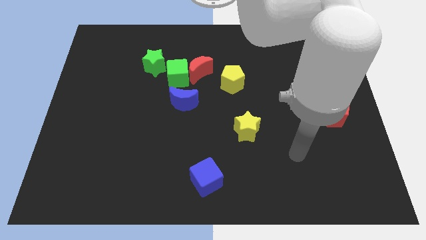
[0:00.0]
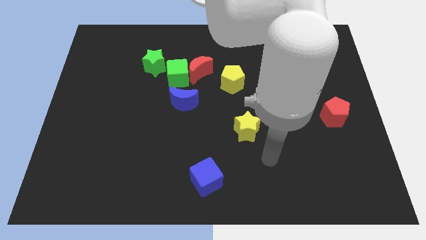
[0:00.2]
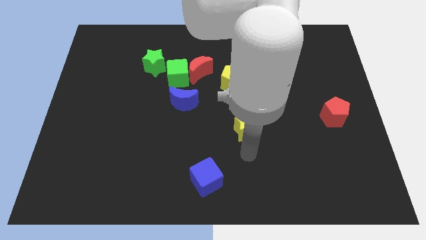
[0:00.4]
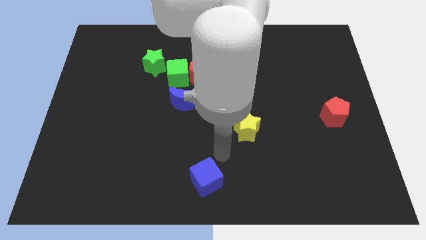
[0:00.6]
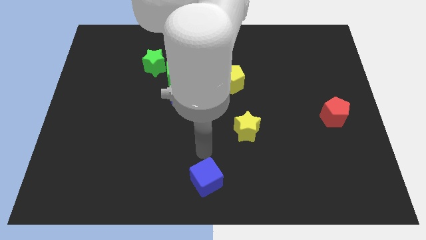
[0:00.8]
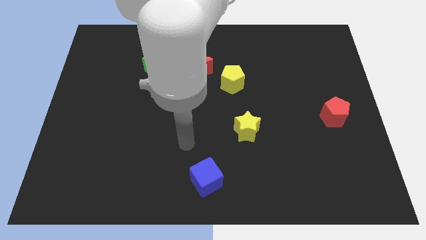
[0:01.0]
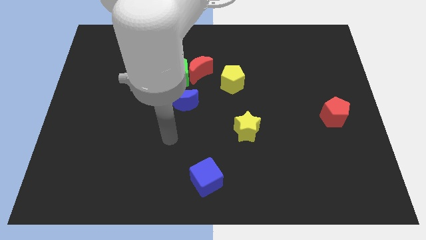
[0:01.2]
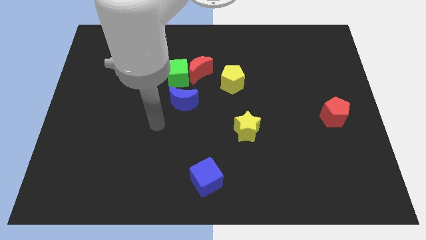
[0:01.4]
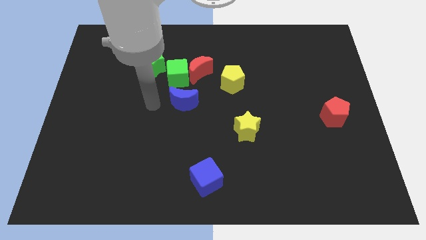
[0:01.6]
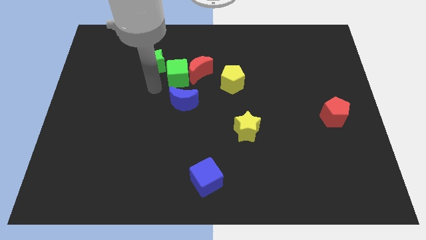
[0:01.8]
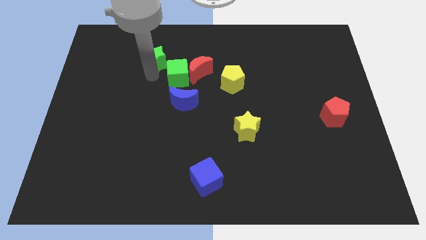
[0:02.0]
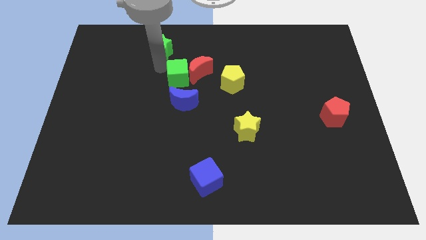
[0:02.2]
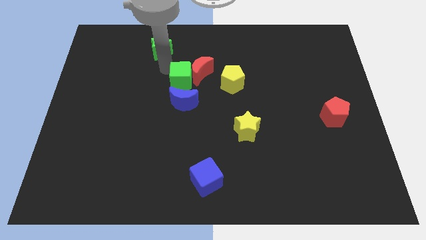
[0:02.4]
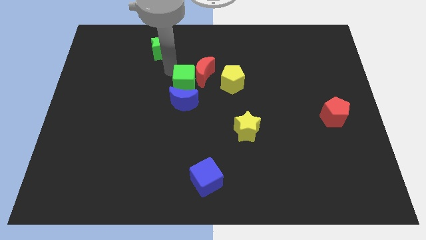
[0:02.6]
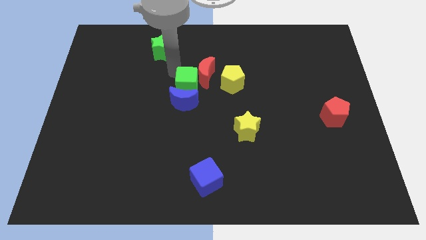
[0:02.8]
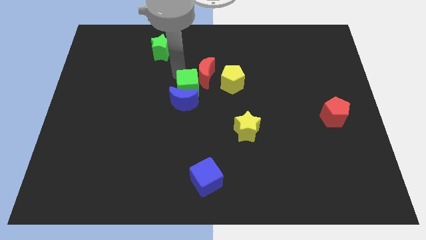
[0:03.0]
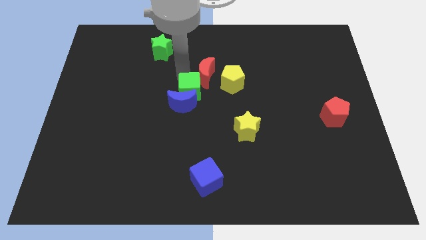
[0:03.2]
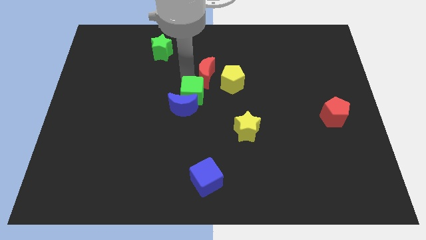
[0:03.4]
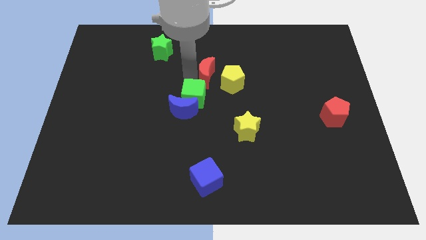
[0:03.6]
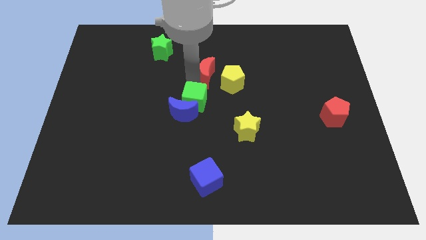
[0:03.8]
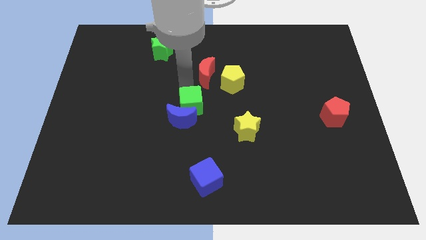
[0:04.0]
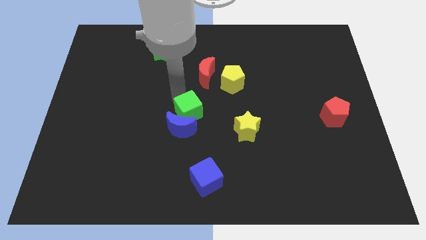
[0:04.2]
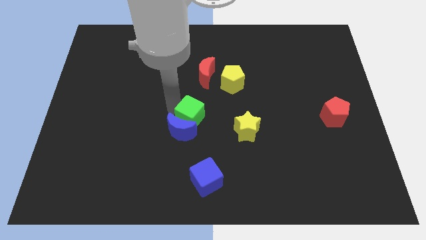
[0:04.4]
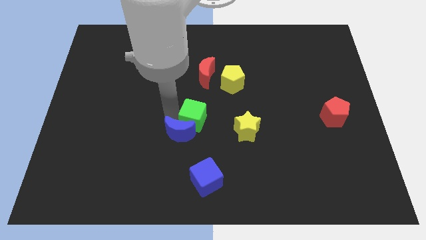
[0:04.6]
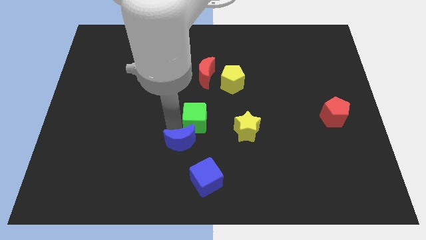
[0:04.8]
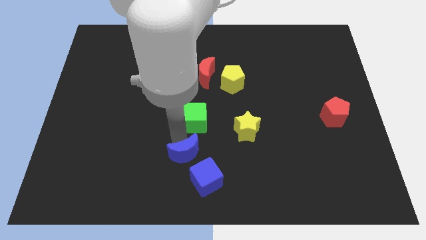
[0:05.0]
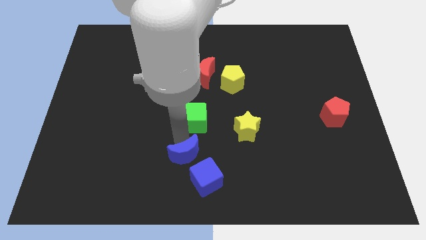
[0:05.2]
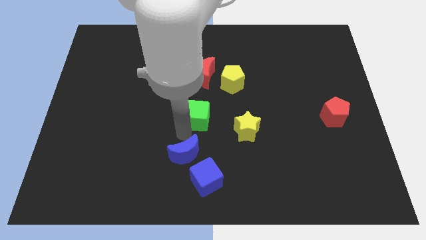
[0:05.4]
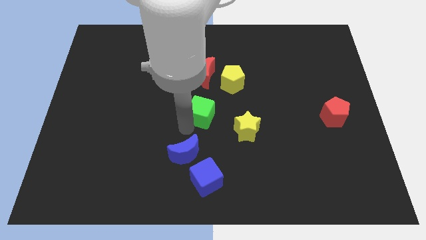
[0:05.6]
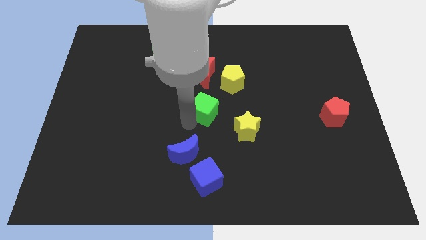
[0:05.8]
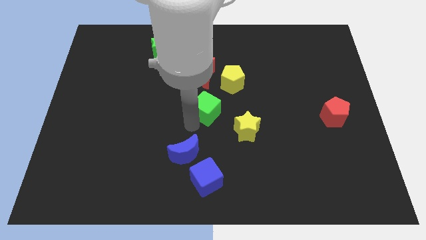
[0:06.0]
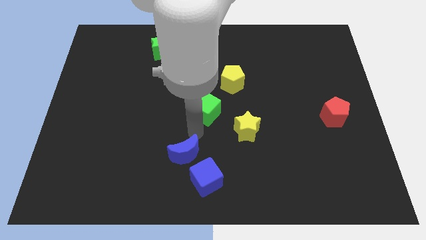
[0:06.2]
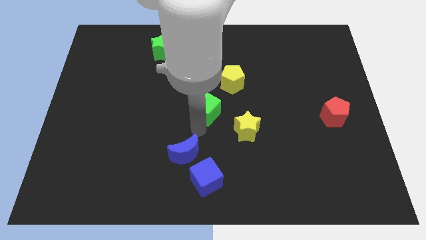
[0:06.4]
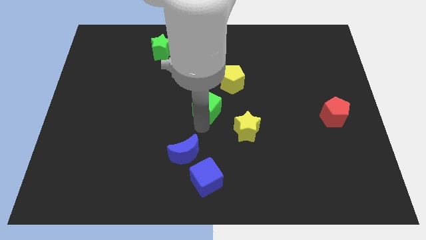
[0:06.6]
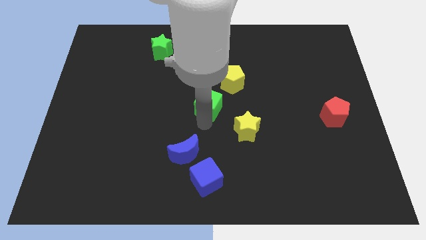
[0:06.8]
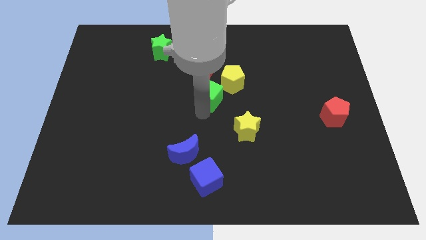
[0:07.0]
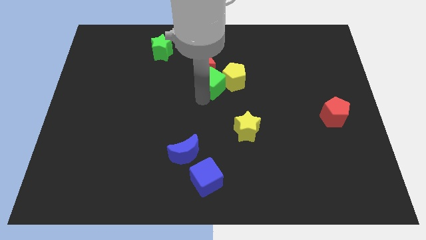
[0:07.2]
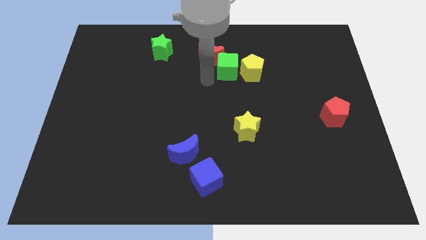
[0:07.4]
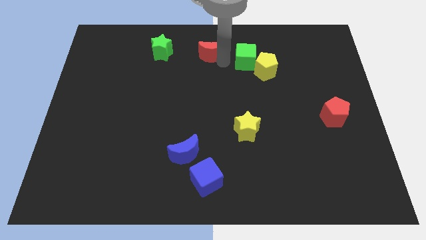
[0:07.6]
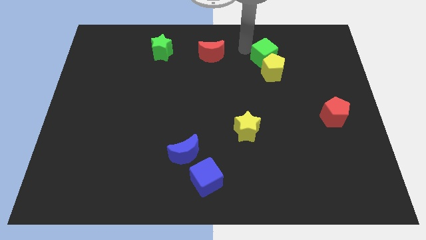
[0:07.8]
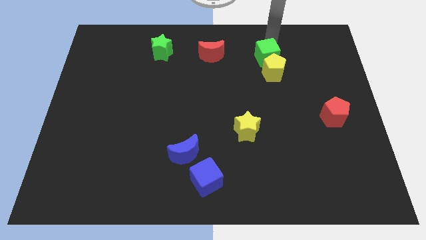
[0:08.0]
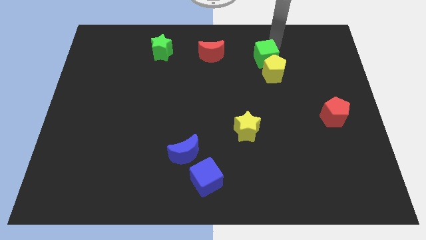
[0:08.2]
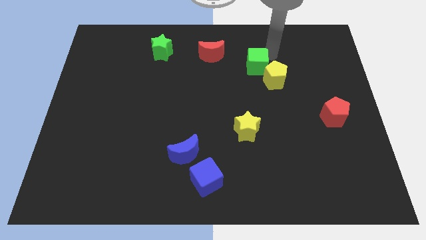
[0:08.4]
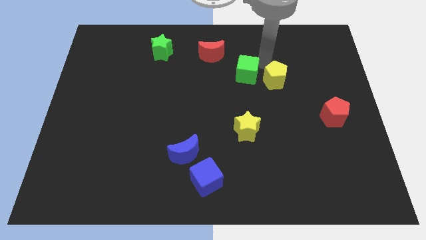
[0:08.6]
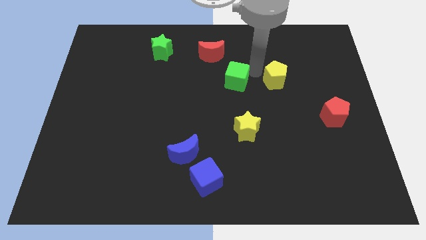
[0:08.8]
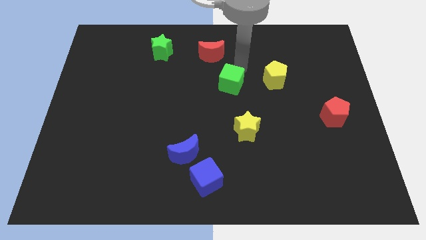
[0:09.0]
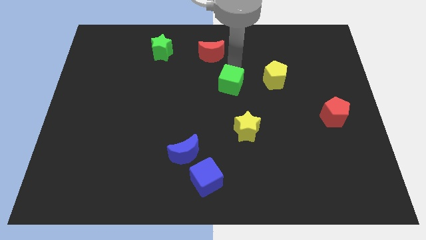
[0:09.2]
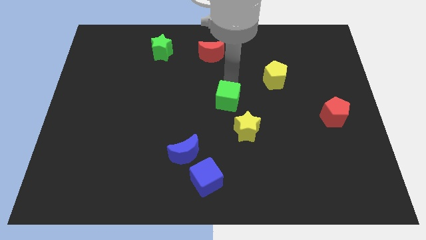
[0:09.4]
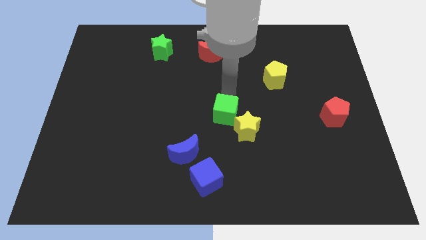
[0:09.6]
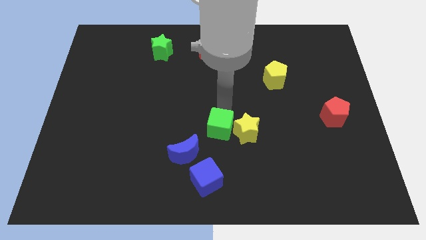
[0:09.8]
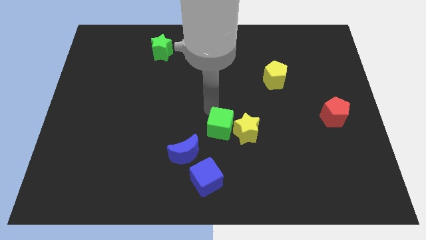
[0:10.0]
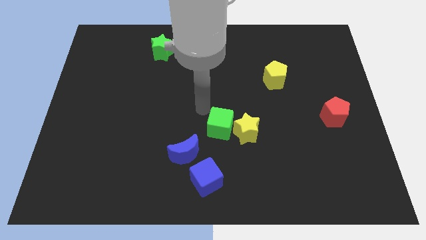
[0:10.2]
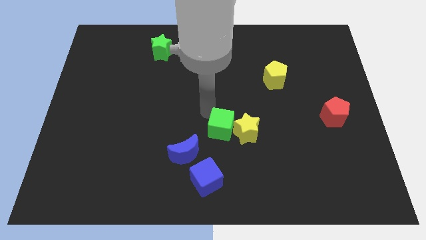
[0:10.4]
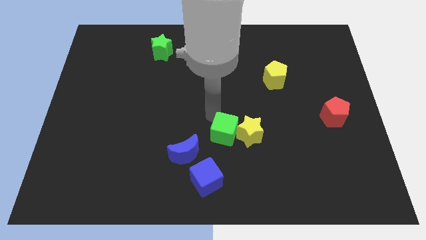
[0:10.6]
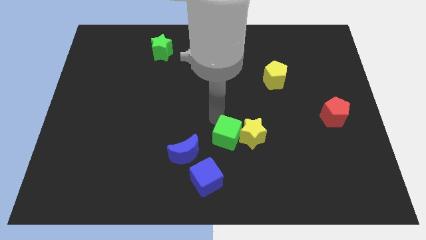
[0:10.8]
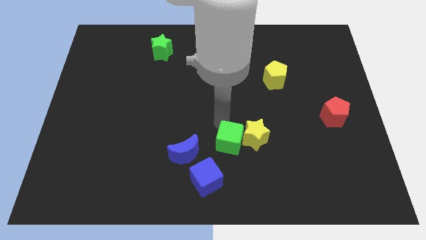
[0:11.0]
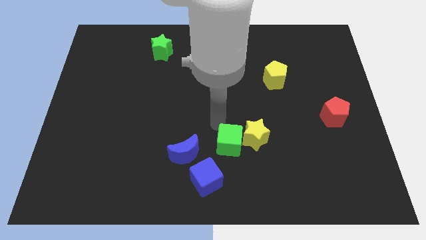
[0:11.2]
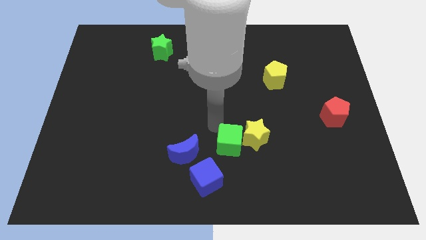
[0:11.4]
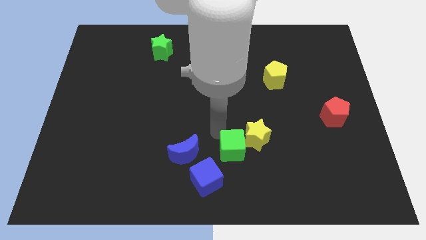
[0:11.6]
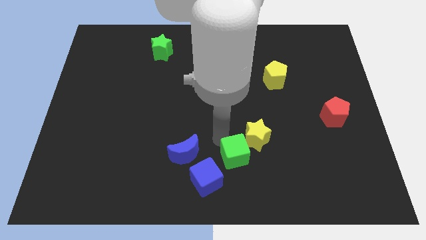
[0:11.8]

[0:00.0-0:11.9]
put the green cube below the yellow star

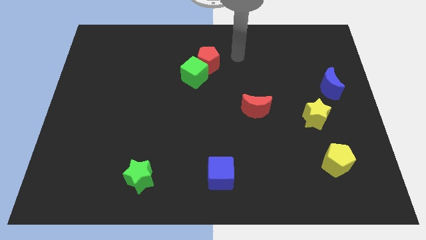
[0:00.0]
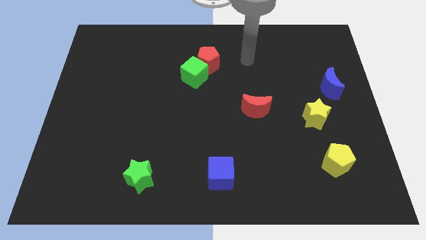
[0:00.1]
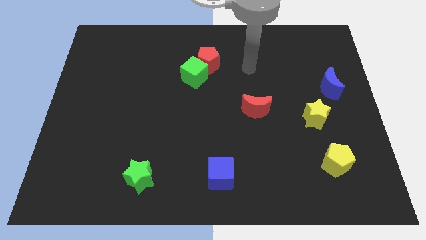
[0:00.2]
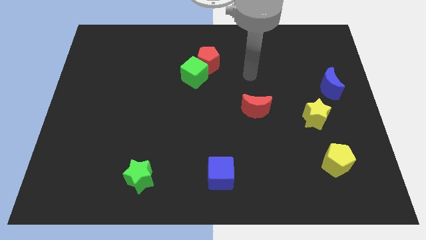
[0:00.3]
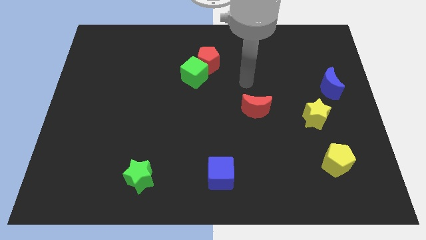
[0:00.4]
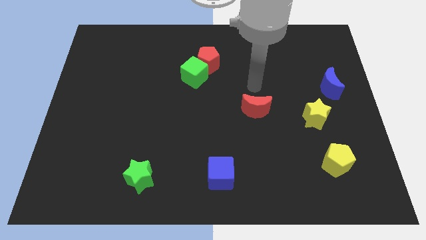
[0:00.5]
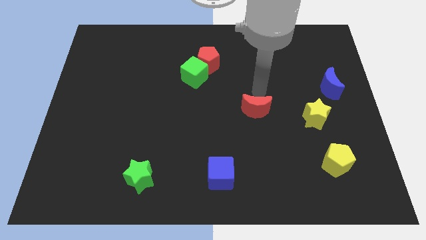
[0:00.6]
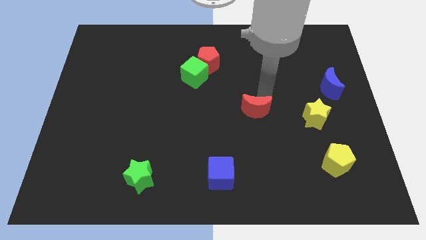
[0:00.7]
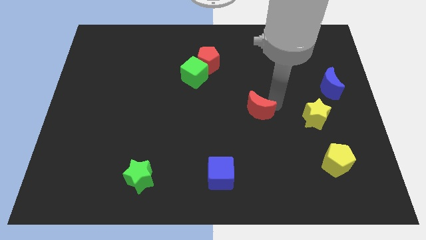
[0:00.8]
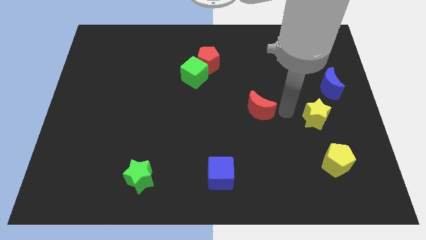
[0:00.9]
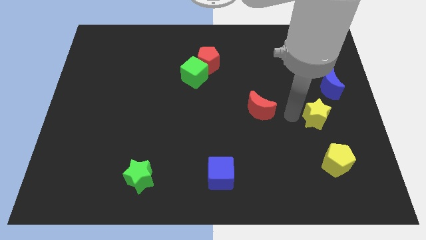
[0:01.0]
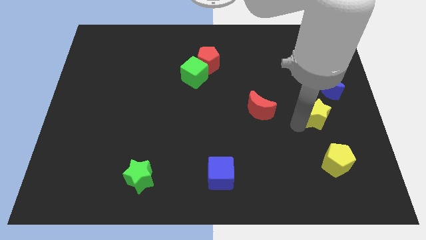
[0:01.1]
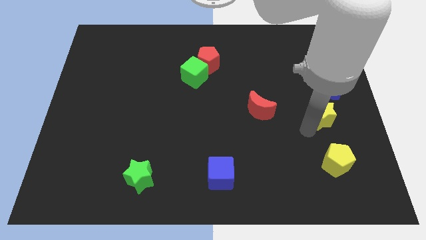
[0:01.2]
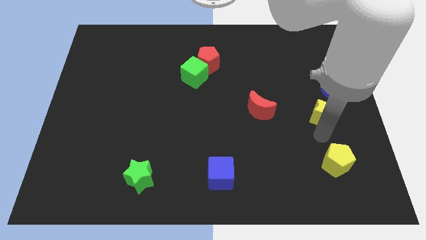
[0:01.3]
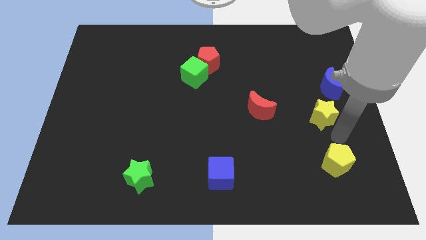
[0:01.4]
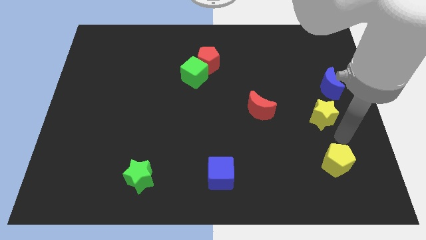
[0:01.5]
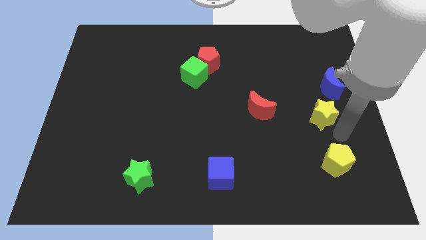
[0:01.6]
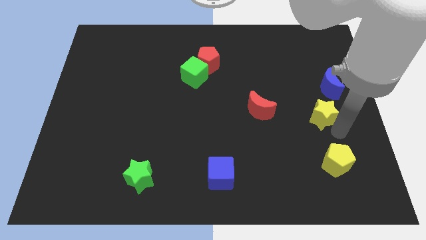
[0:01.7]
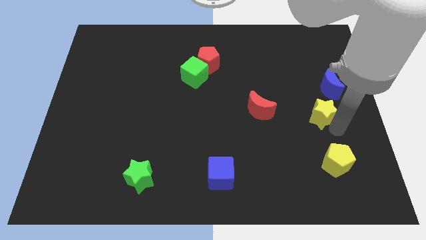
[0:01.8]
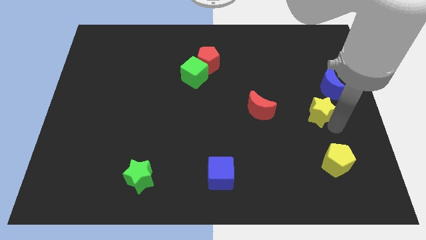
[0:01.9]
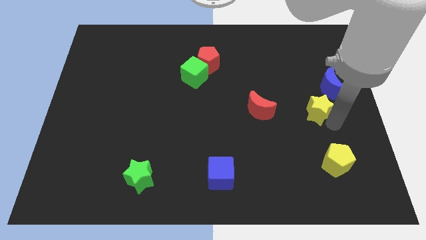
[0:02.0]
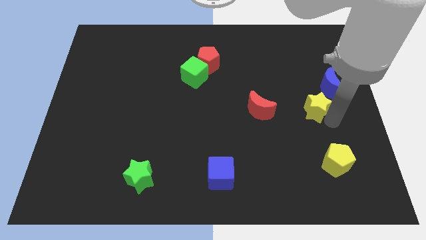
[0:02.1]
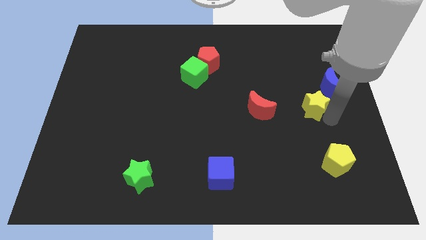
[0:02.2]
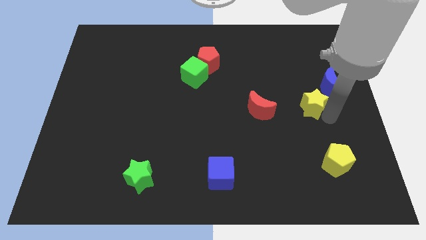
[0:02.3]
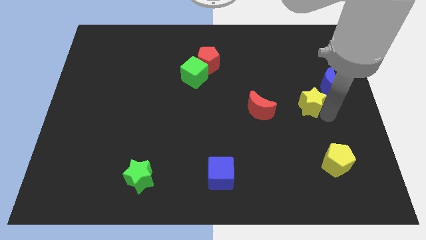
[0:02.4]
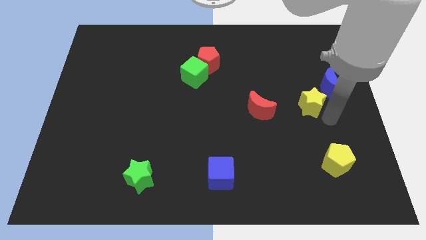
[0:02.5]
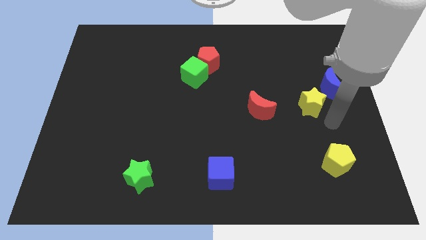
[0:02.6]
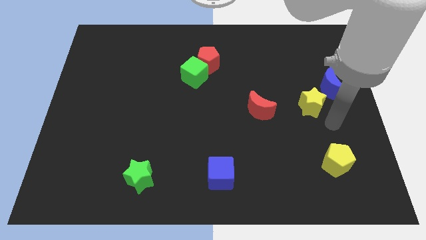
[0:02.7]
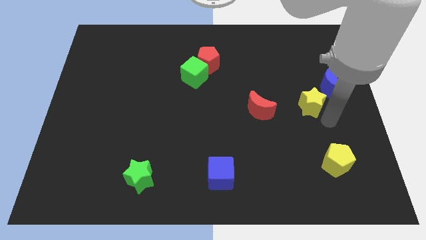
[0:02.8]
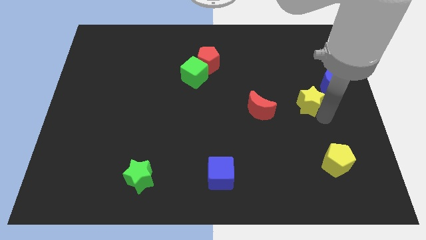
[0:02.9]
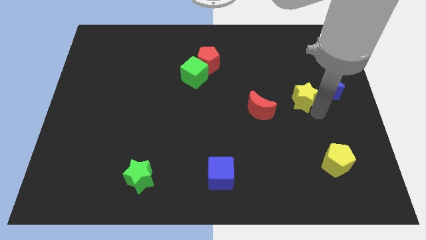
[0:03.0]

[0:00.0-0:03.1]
put the yellow star to the left side of the blue moon
